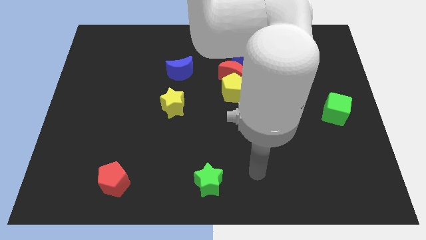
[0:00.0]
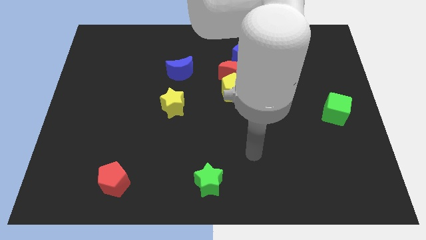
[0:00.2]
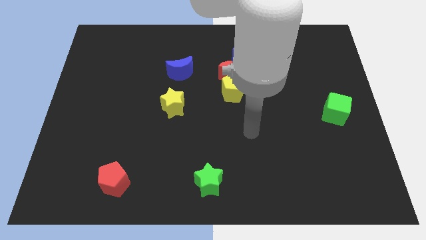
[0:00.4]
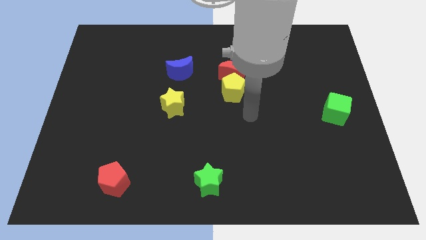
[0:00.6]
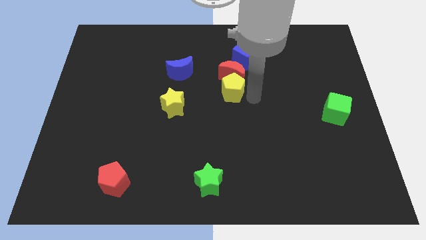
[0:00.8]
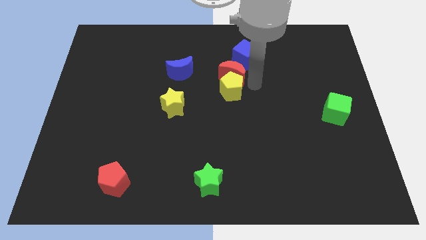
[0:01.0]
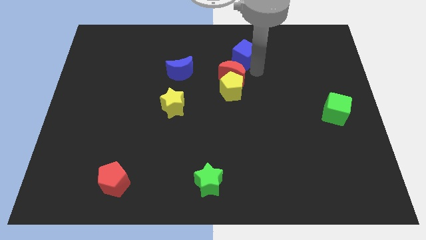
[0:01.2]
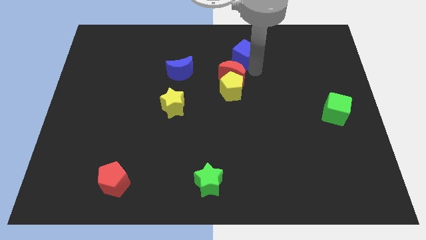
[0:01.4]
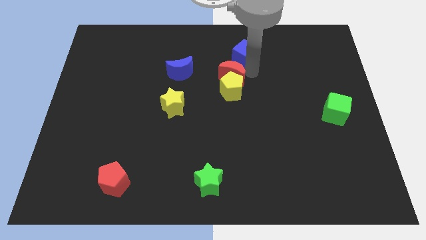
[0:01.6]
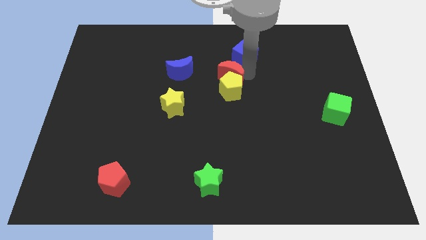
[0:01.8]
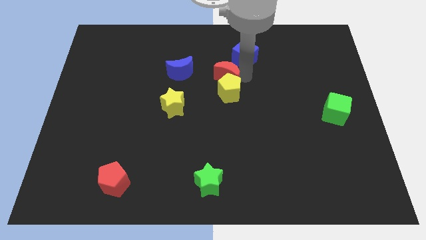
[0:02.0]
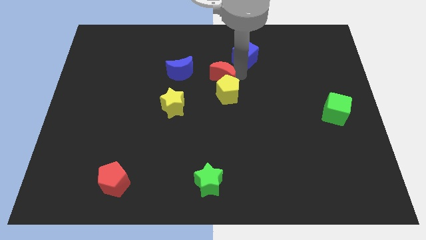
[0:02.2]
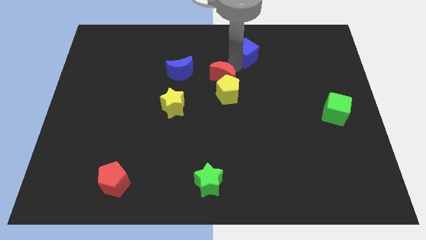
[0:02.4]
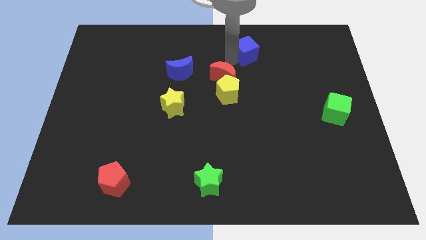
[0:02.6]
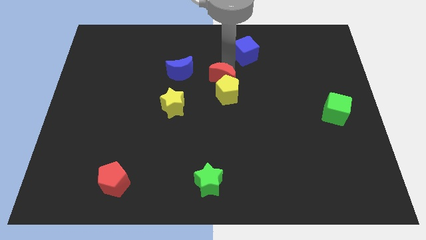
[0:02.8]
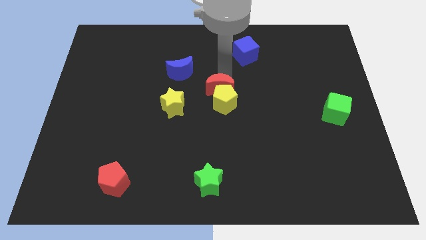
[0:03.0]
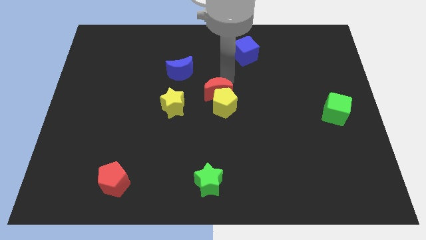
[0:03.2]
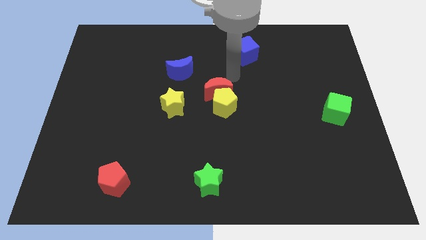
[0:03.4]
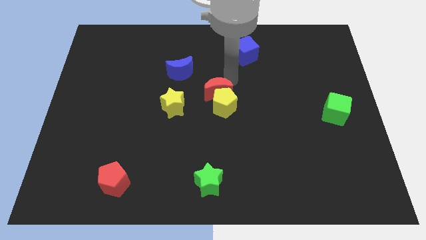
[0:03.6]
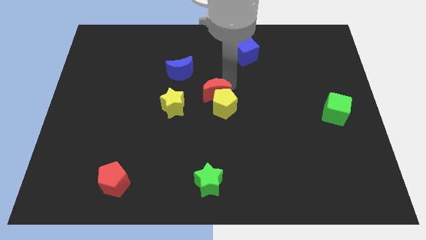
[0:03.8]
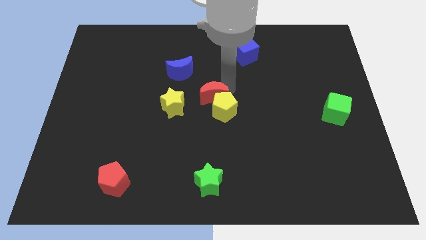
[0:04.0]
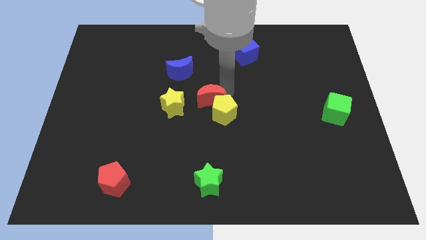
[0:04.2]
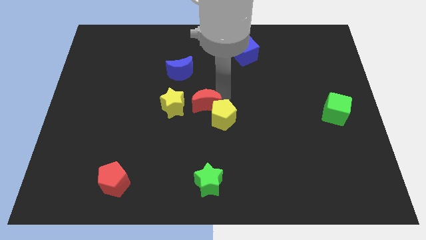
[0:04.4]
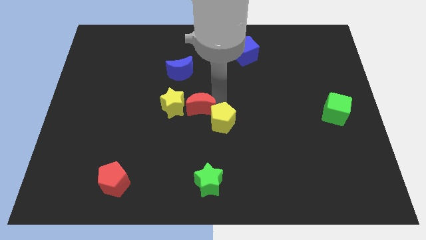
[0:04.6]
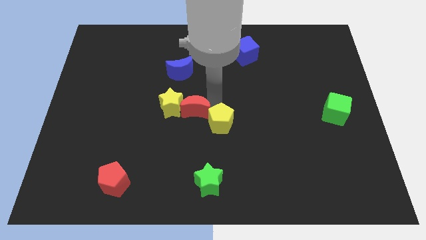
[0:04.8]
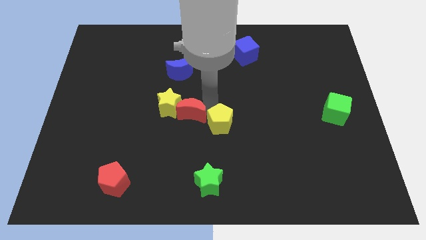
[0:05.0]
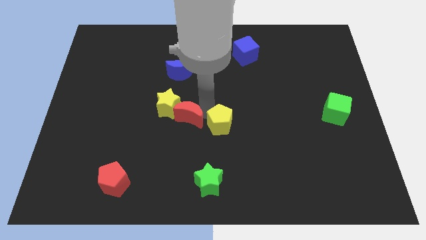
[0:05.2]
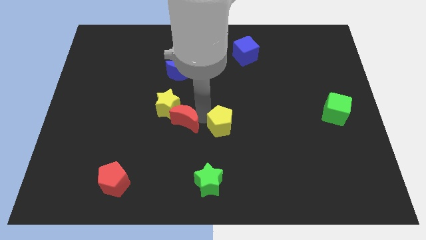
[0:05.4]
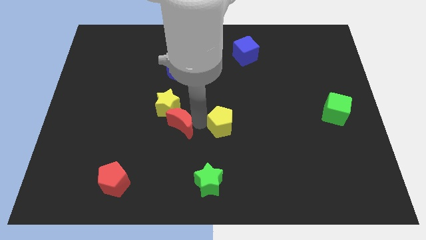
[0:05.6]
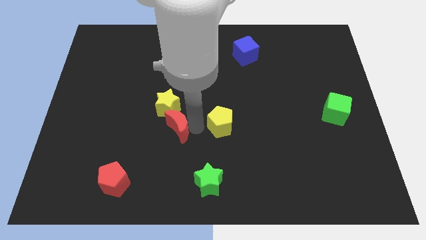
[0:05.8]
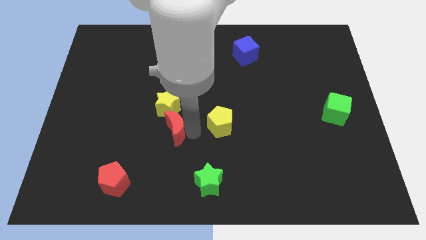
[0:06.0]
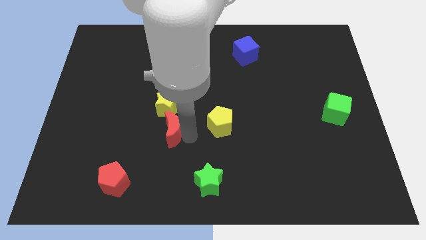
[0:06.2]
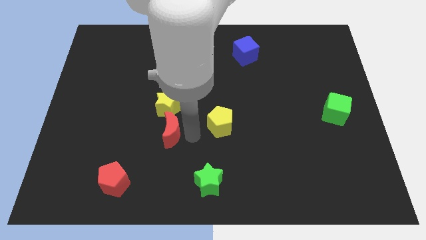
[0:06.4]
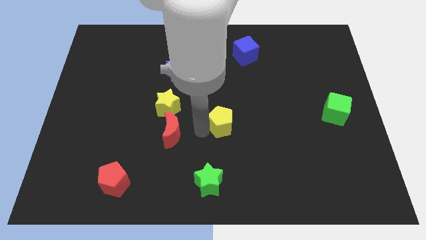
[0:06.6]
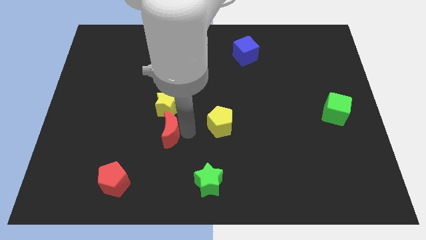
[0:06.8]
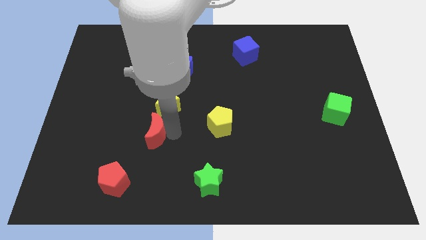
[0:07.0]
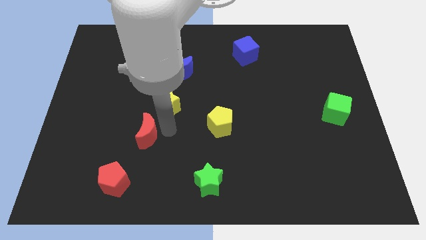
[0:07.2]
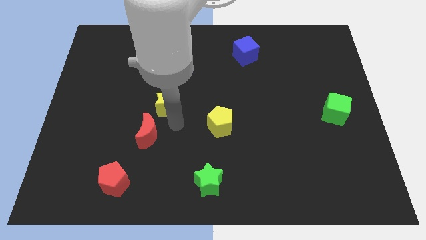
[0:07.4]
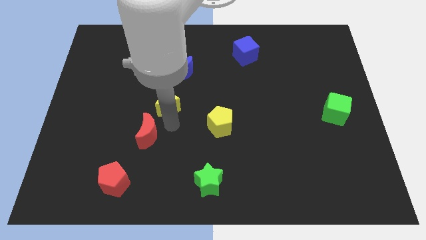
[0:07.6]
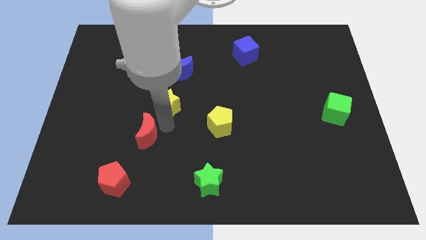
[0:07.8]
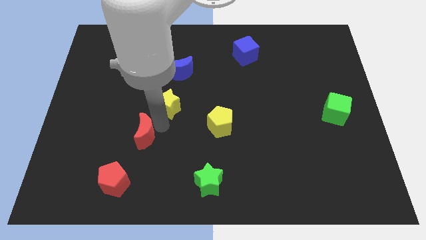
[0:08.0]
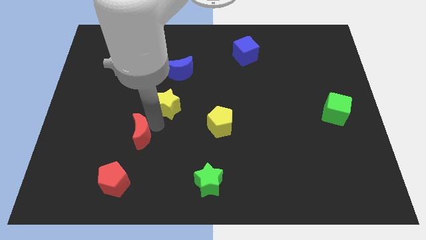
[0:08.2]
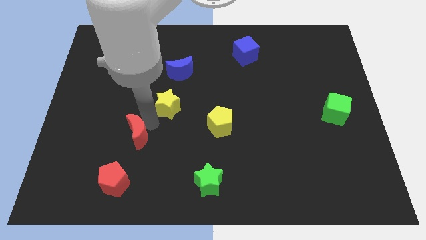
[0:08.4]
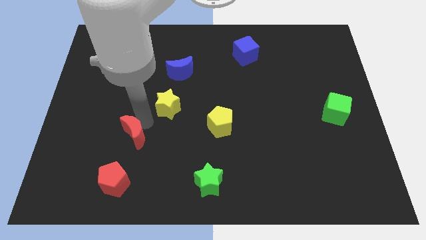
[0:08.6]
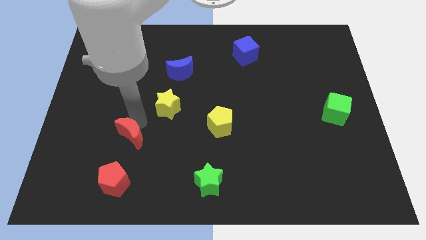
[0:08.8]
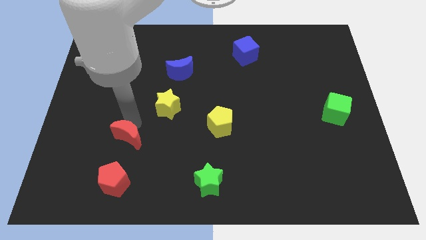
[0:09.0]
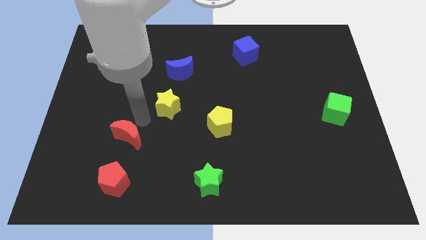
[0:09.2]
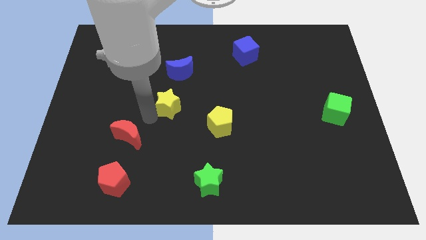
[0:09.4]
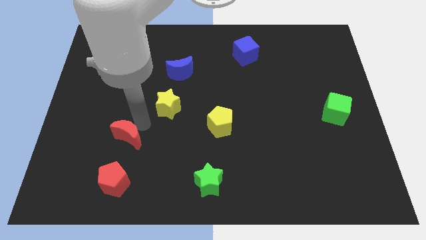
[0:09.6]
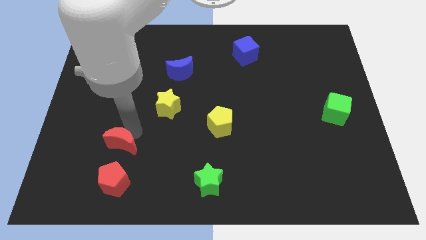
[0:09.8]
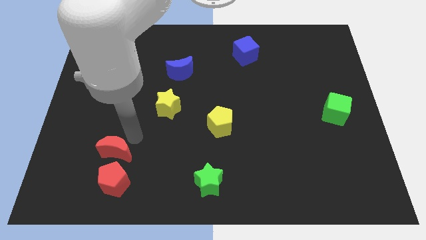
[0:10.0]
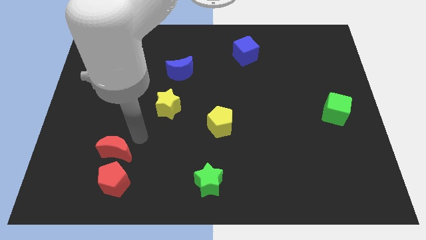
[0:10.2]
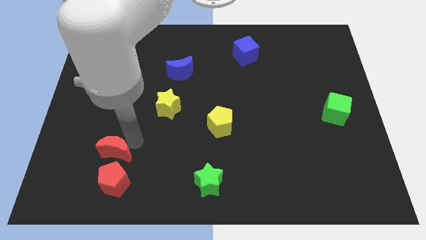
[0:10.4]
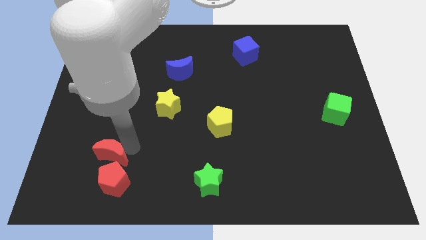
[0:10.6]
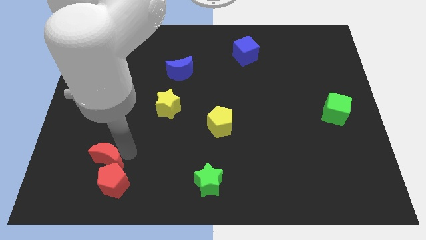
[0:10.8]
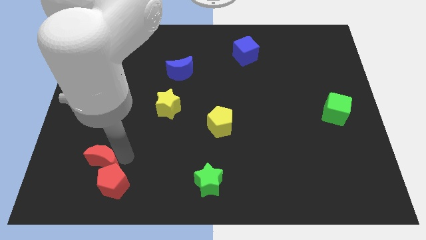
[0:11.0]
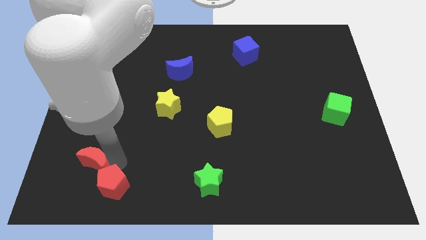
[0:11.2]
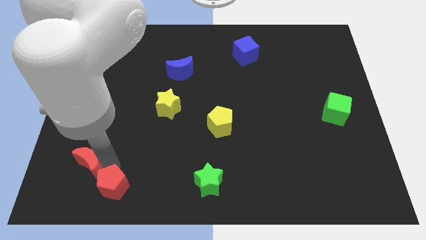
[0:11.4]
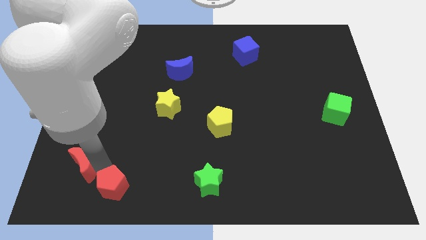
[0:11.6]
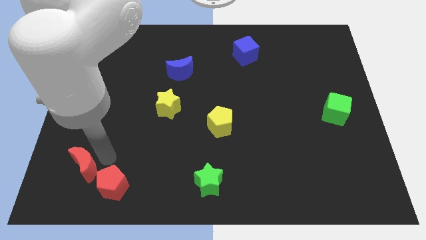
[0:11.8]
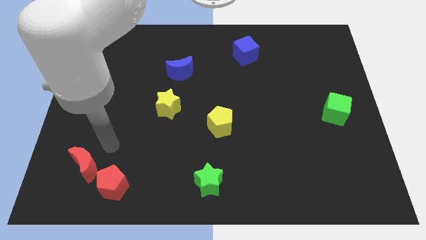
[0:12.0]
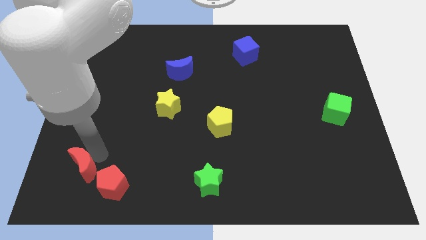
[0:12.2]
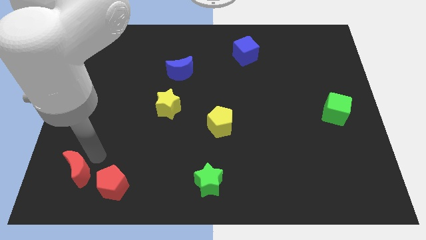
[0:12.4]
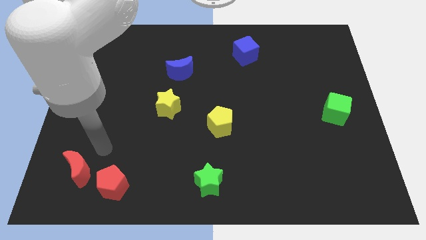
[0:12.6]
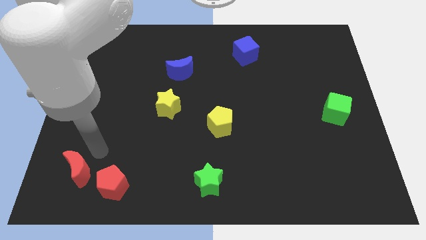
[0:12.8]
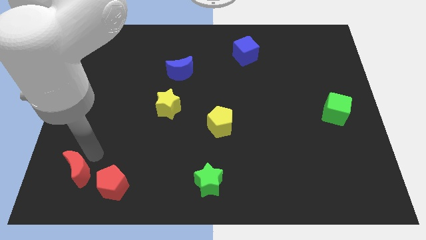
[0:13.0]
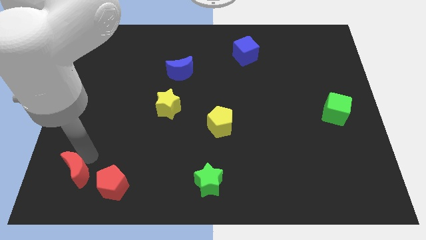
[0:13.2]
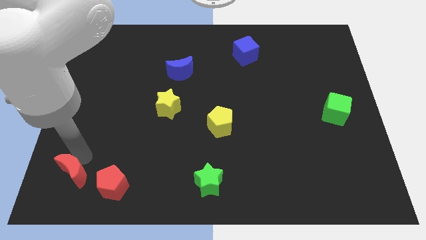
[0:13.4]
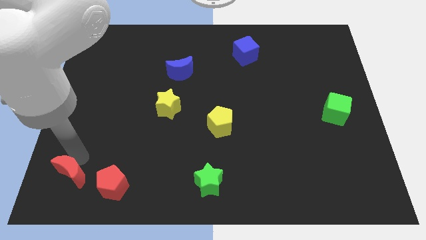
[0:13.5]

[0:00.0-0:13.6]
put the red moon to the bottom left
